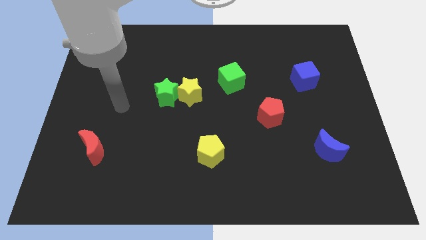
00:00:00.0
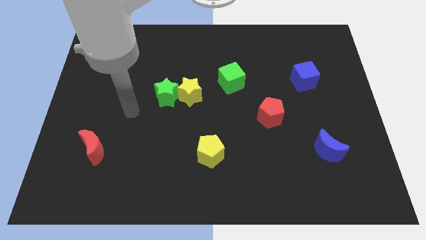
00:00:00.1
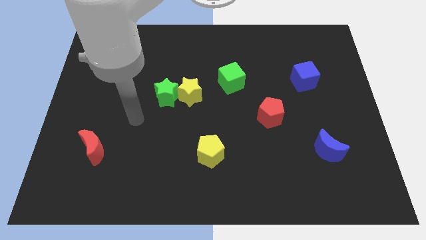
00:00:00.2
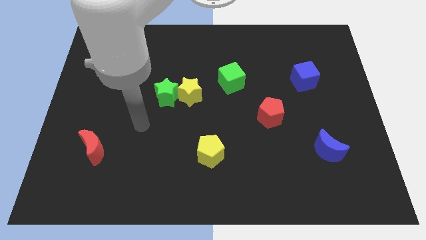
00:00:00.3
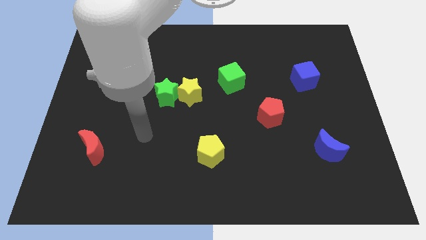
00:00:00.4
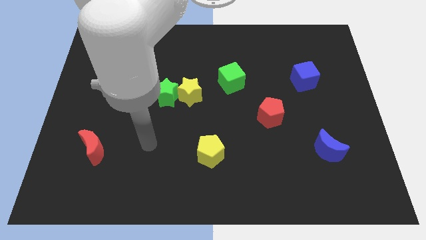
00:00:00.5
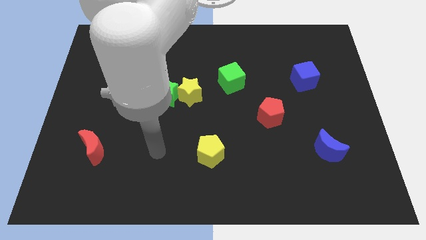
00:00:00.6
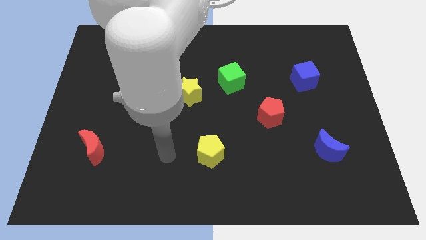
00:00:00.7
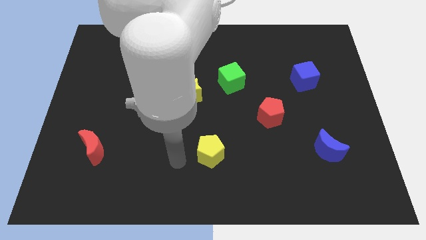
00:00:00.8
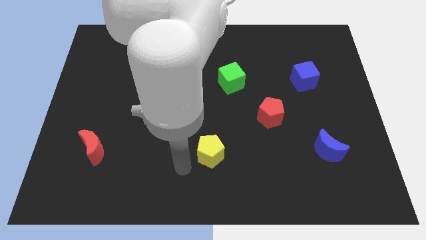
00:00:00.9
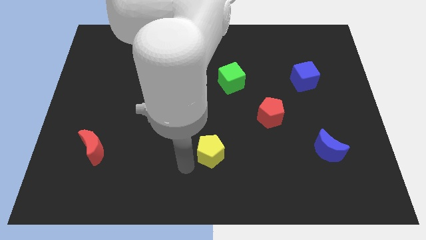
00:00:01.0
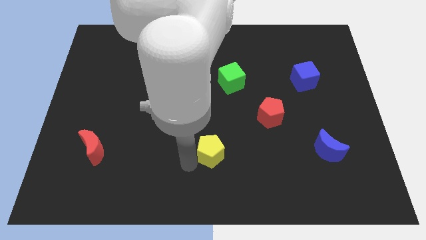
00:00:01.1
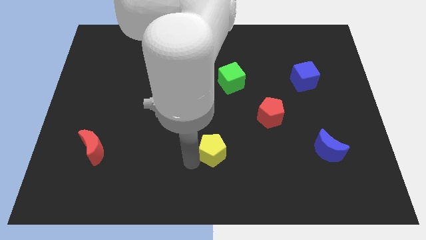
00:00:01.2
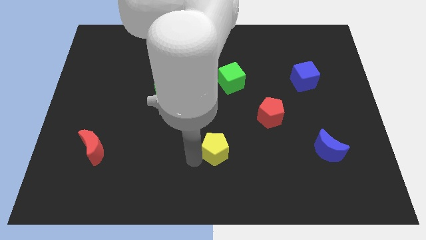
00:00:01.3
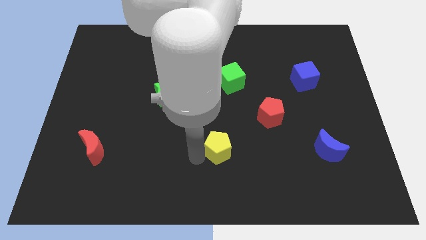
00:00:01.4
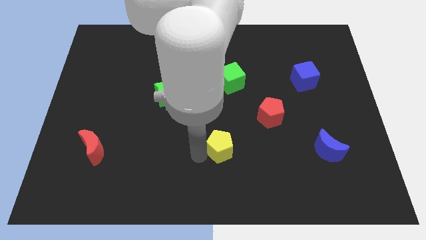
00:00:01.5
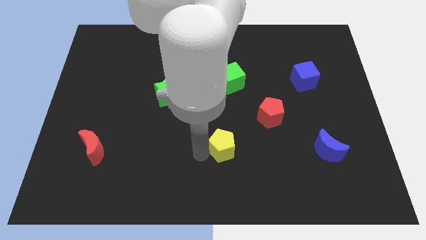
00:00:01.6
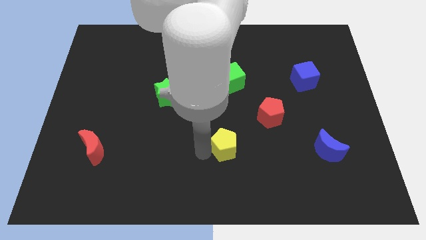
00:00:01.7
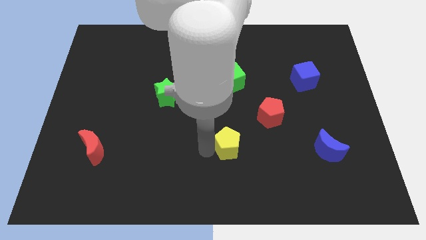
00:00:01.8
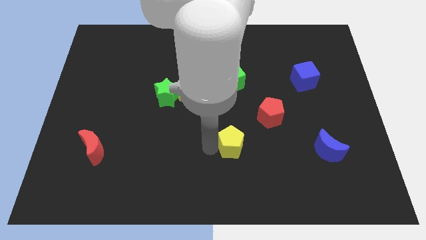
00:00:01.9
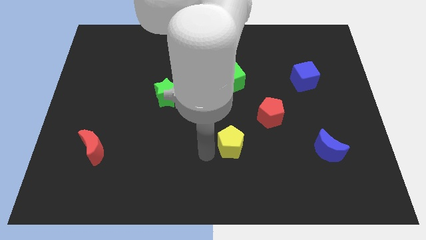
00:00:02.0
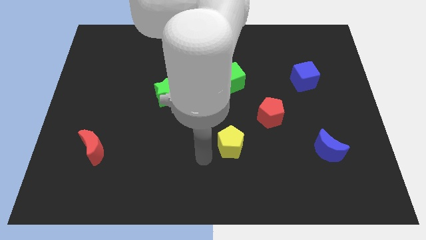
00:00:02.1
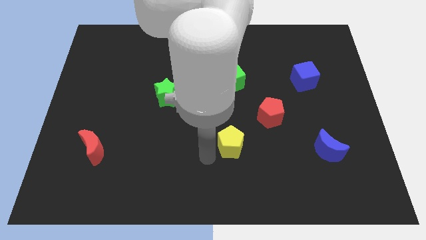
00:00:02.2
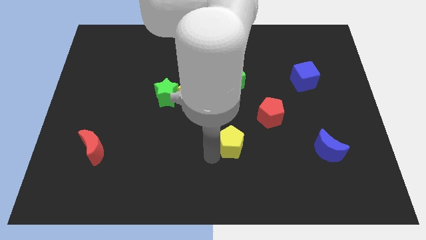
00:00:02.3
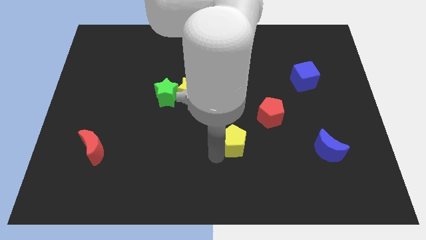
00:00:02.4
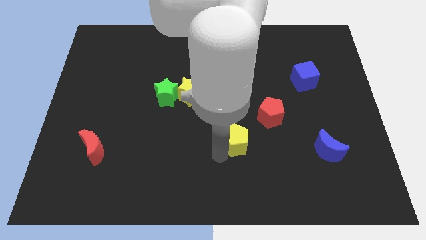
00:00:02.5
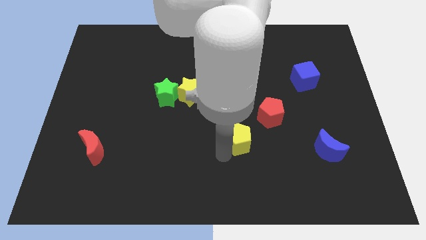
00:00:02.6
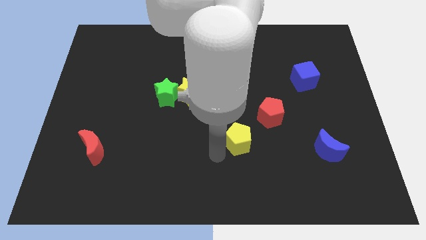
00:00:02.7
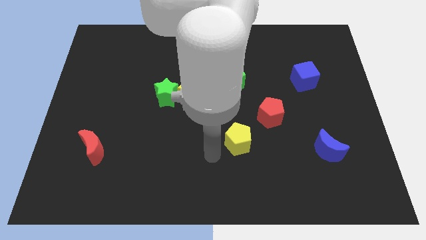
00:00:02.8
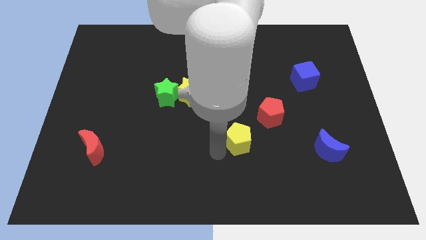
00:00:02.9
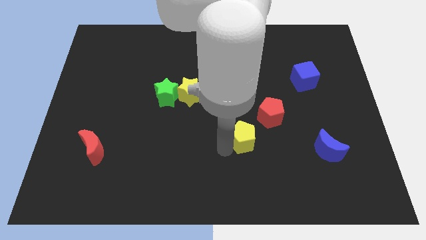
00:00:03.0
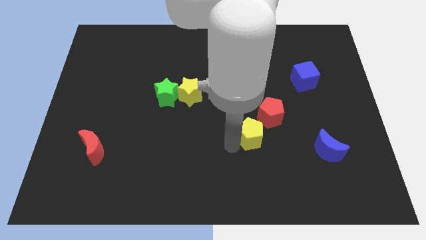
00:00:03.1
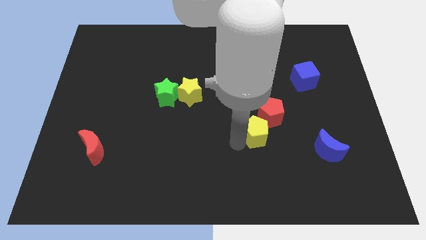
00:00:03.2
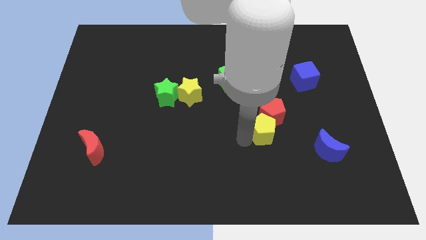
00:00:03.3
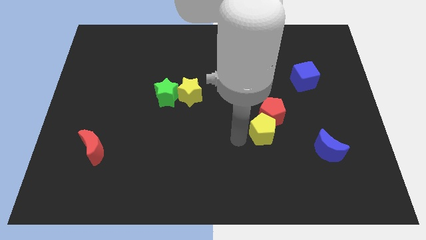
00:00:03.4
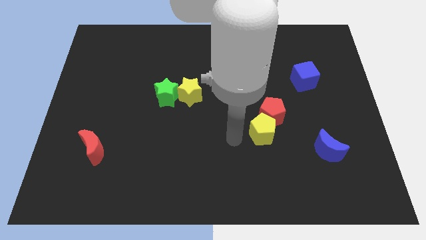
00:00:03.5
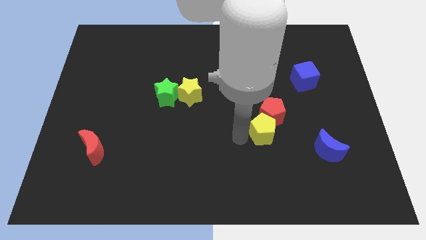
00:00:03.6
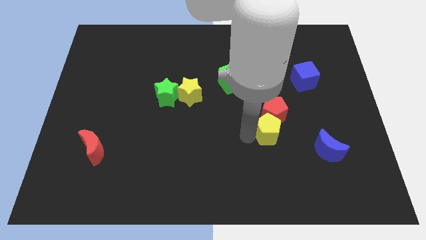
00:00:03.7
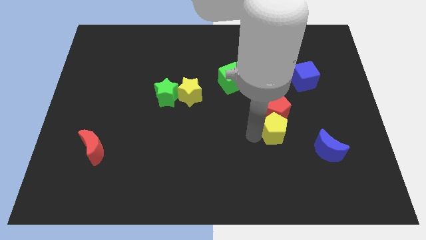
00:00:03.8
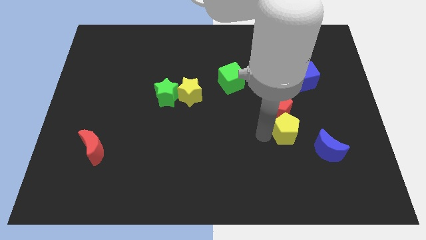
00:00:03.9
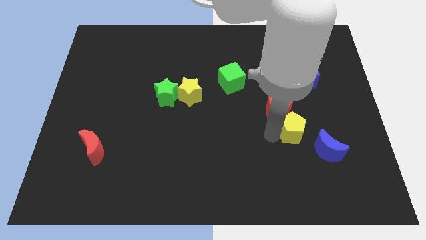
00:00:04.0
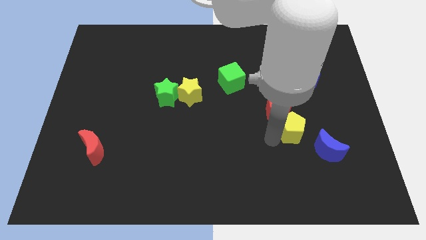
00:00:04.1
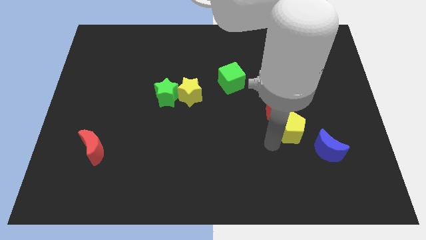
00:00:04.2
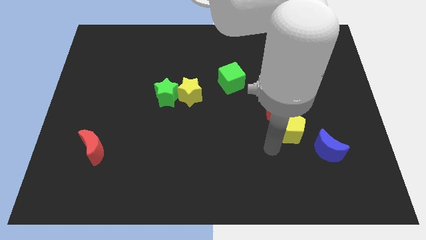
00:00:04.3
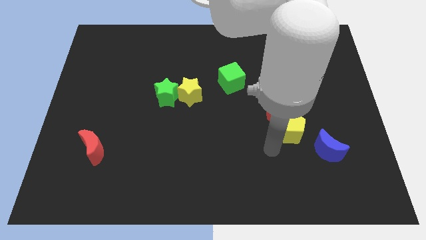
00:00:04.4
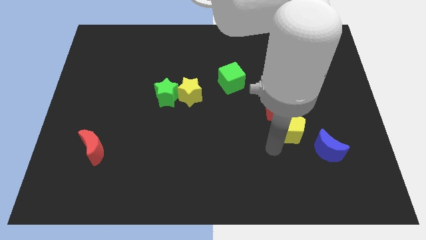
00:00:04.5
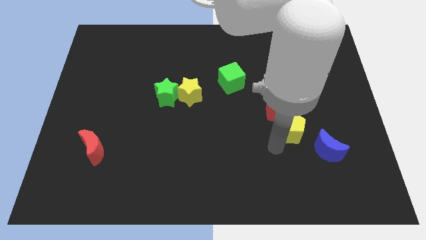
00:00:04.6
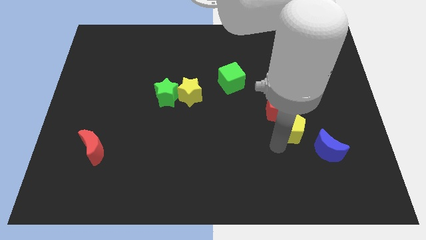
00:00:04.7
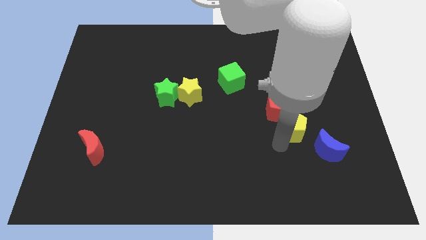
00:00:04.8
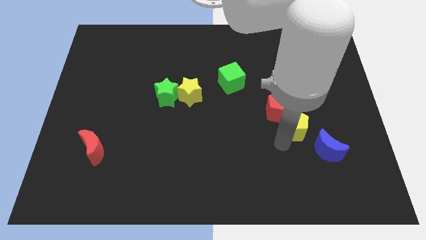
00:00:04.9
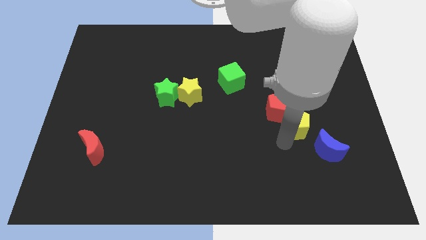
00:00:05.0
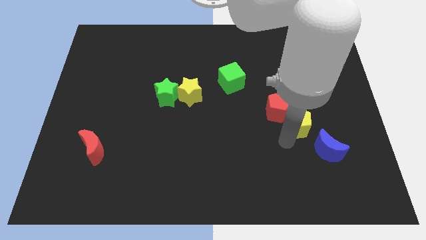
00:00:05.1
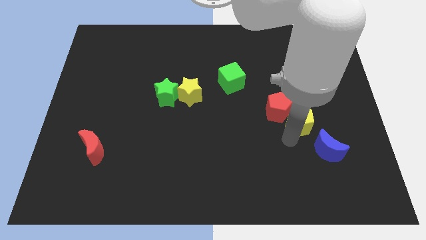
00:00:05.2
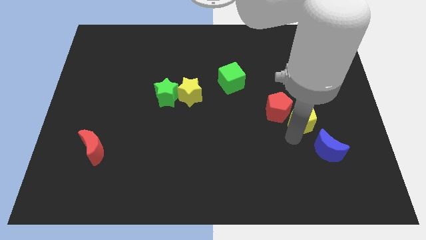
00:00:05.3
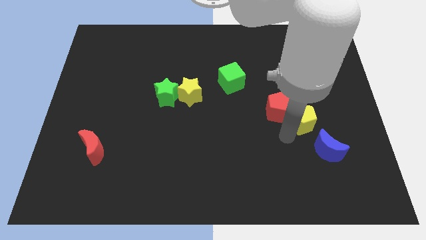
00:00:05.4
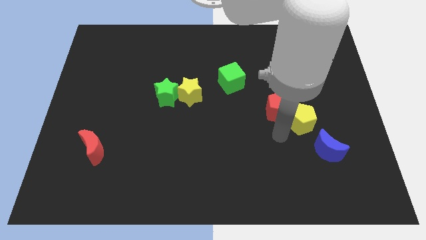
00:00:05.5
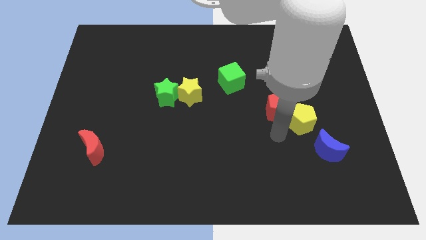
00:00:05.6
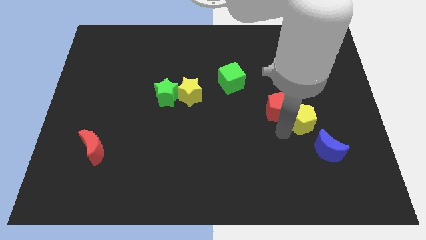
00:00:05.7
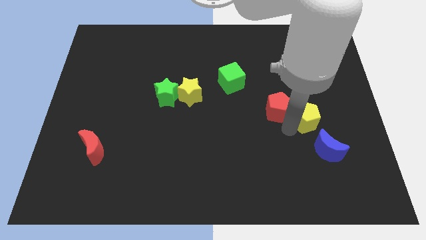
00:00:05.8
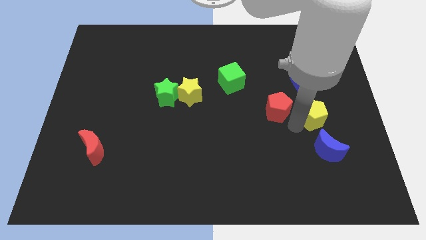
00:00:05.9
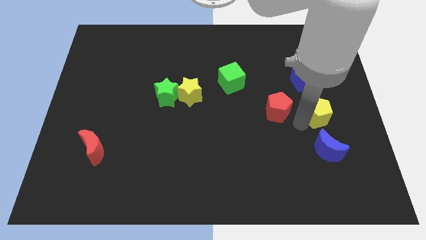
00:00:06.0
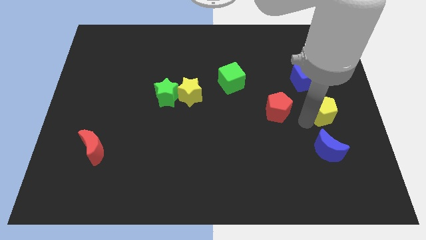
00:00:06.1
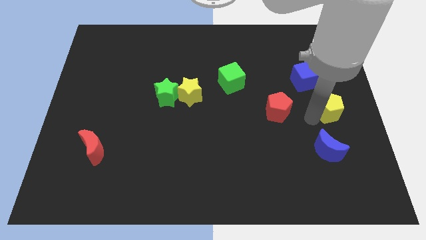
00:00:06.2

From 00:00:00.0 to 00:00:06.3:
move the yellow pentagon to the center right
